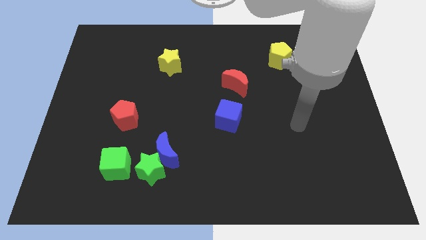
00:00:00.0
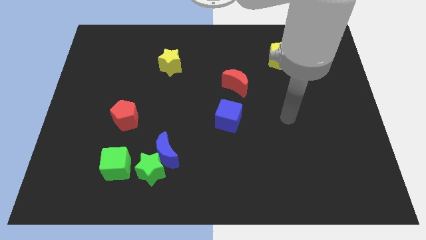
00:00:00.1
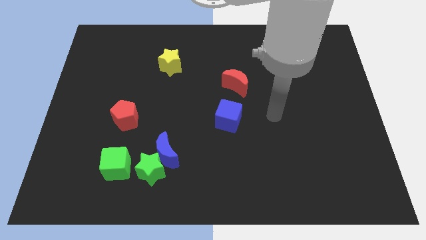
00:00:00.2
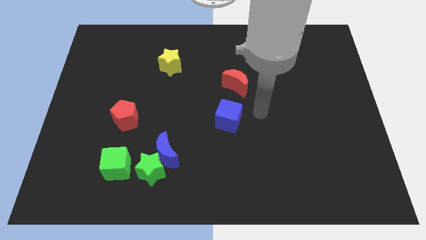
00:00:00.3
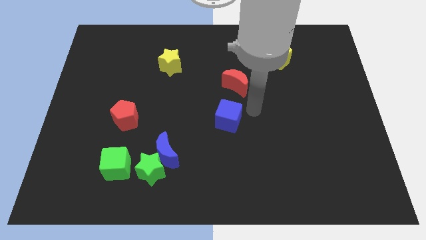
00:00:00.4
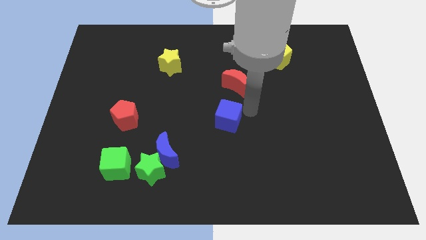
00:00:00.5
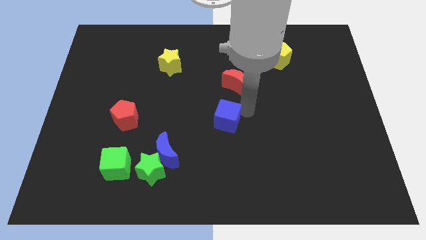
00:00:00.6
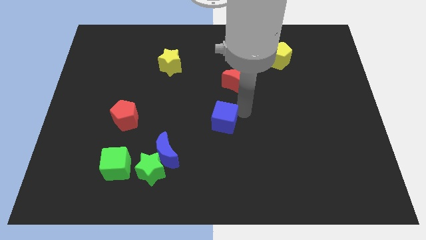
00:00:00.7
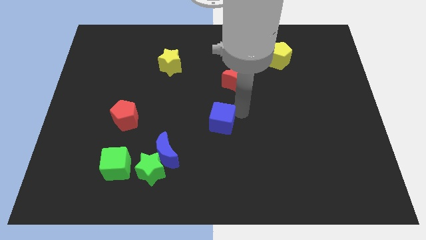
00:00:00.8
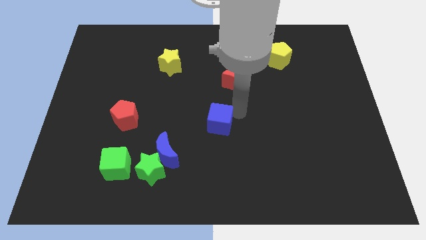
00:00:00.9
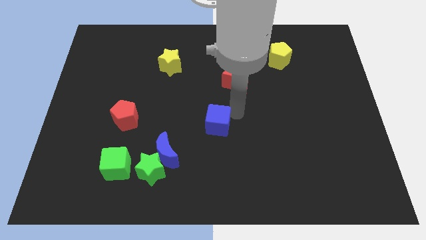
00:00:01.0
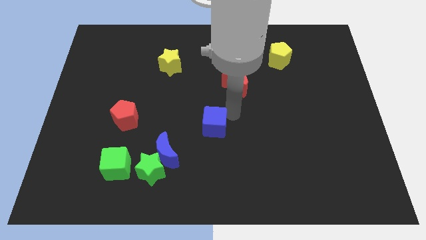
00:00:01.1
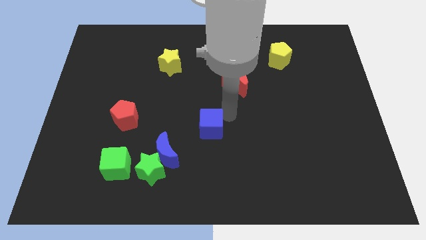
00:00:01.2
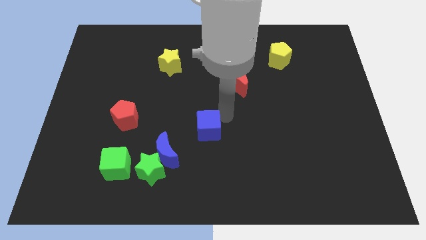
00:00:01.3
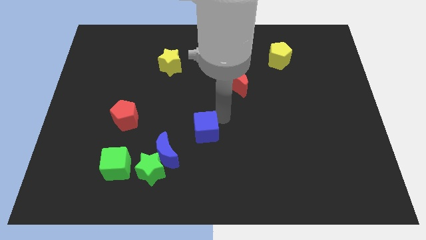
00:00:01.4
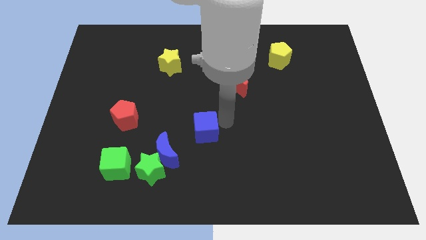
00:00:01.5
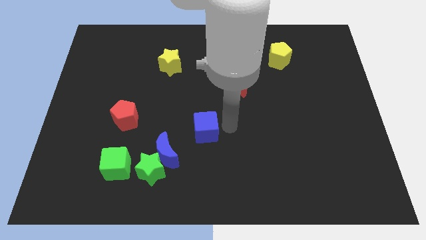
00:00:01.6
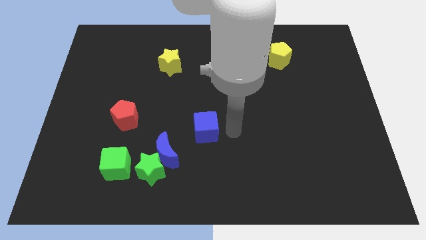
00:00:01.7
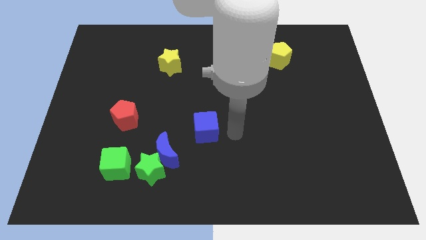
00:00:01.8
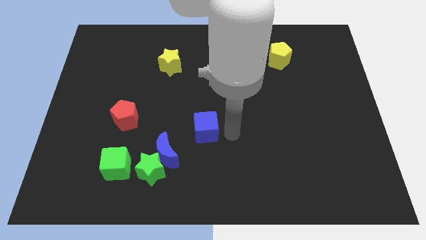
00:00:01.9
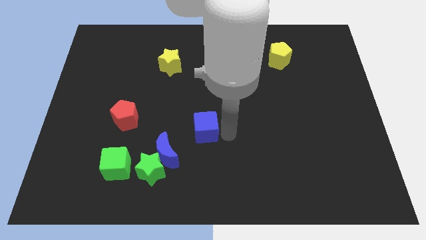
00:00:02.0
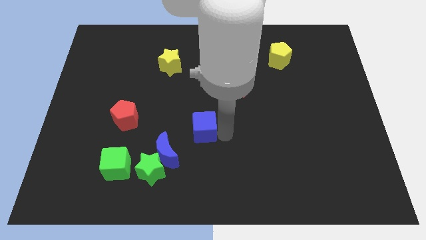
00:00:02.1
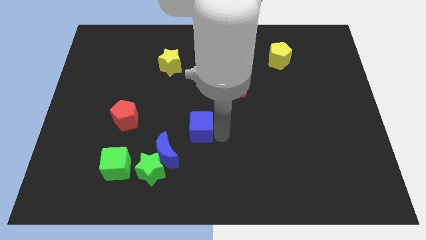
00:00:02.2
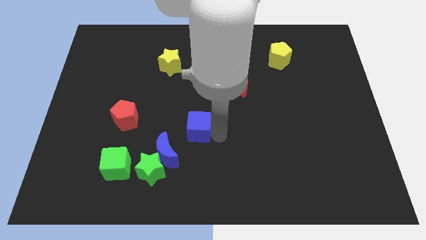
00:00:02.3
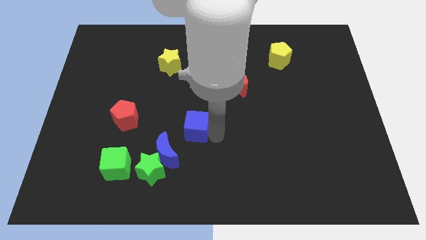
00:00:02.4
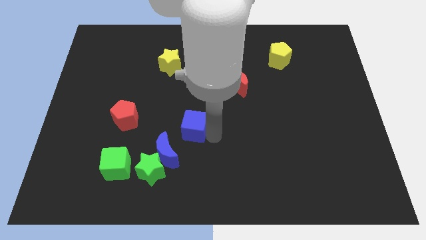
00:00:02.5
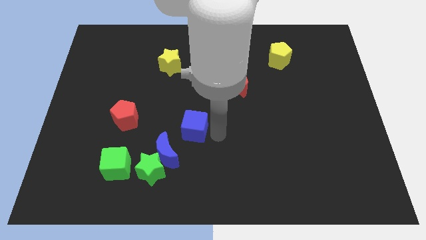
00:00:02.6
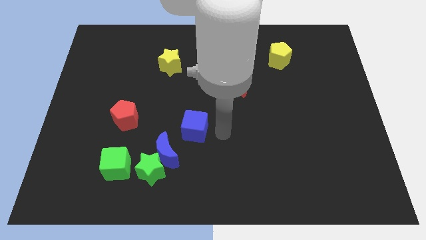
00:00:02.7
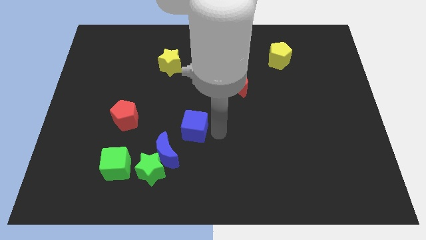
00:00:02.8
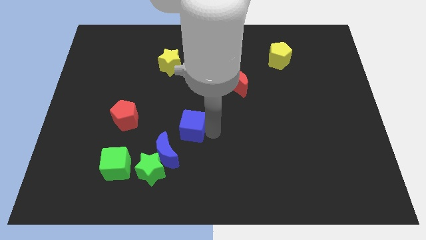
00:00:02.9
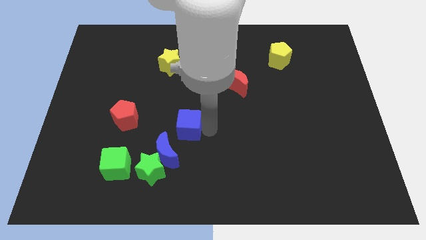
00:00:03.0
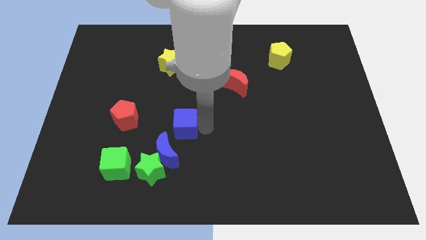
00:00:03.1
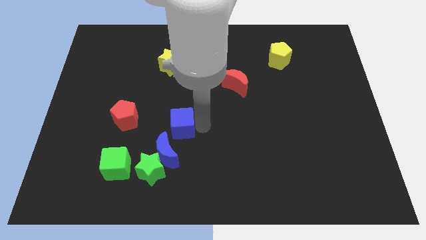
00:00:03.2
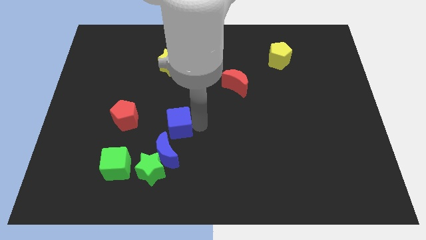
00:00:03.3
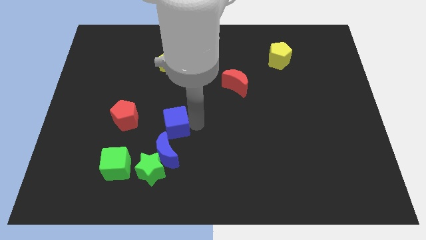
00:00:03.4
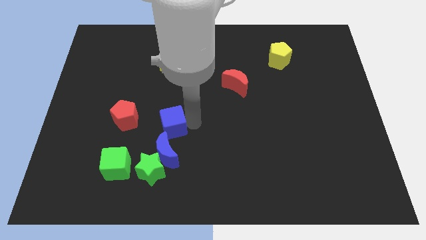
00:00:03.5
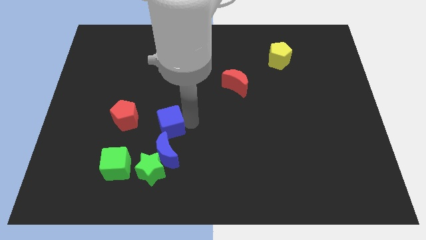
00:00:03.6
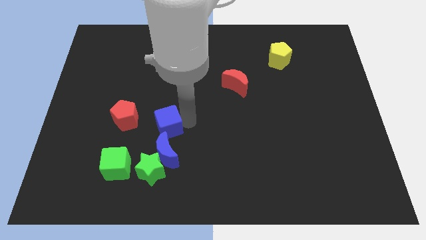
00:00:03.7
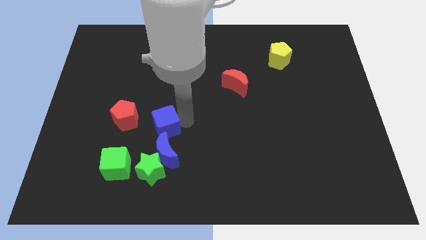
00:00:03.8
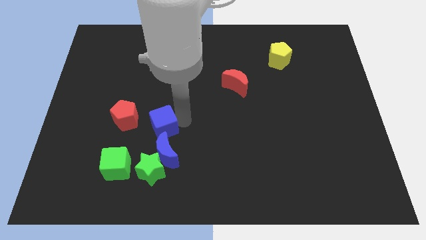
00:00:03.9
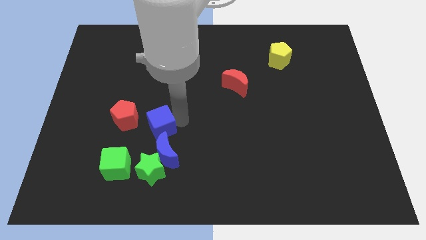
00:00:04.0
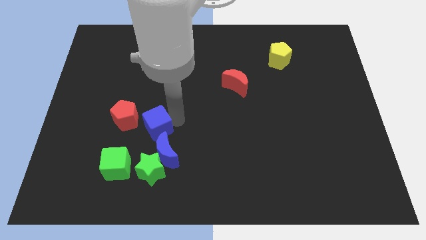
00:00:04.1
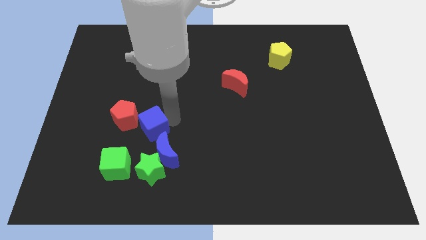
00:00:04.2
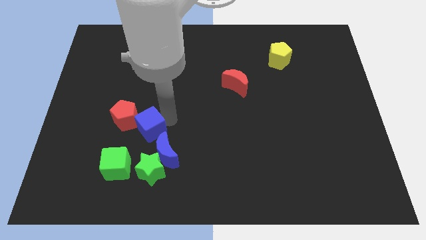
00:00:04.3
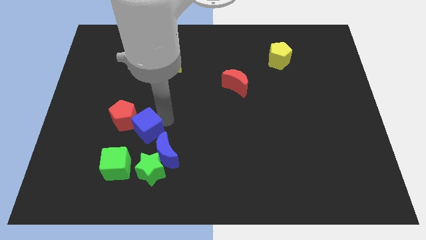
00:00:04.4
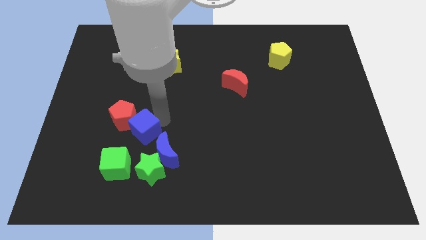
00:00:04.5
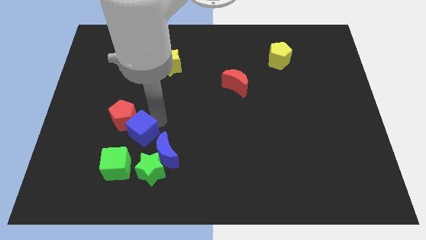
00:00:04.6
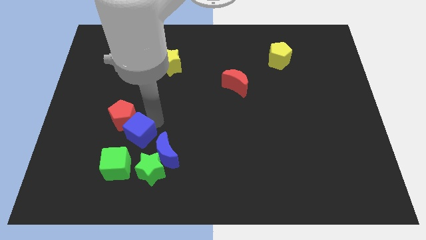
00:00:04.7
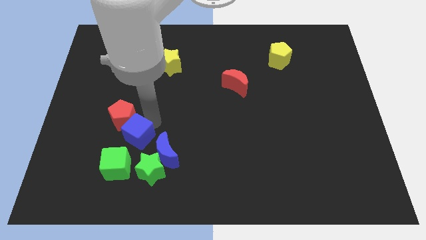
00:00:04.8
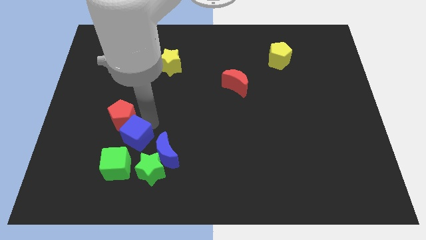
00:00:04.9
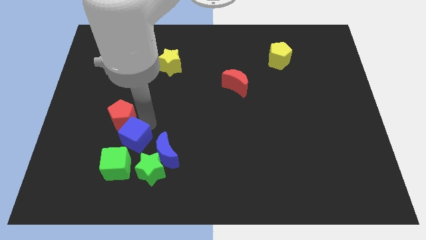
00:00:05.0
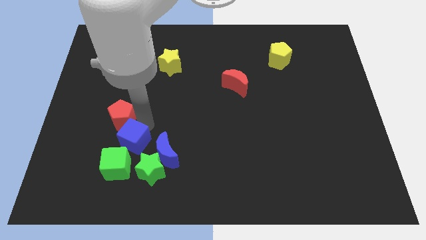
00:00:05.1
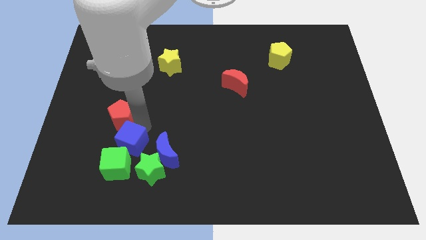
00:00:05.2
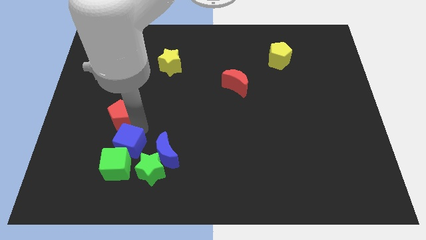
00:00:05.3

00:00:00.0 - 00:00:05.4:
push the blue cube to the green cube

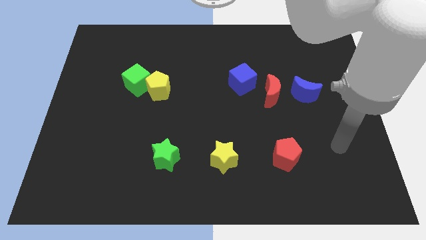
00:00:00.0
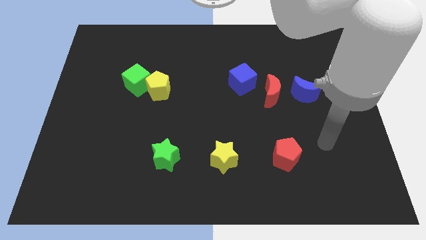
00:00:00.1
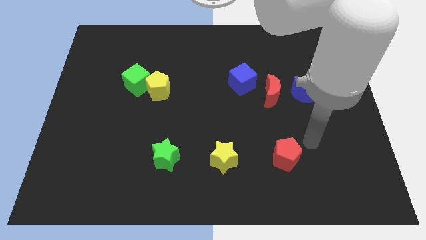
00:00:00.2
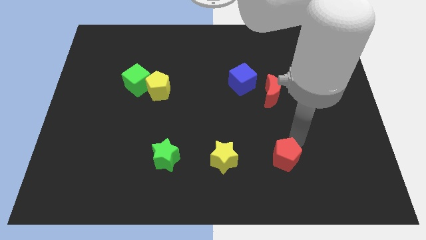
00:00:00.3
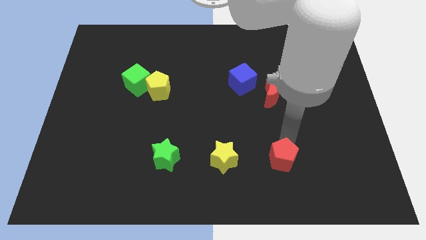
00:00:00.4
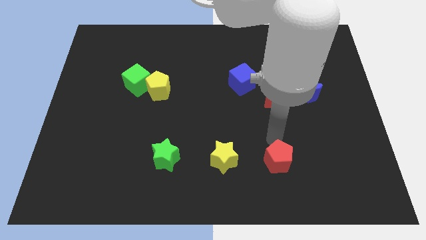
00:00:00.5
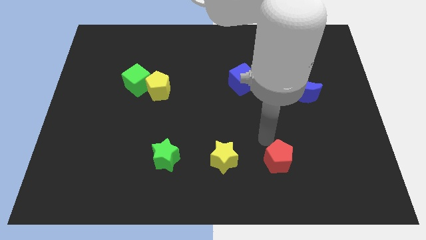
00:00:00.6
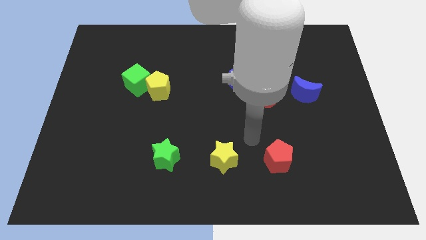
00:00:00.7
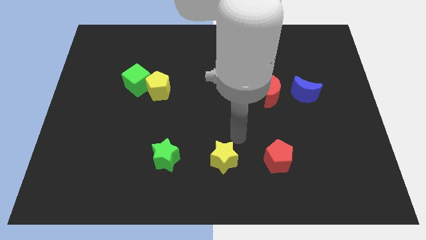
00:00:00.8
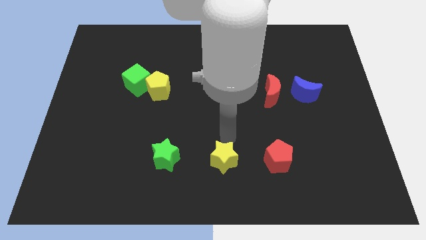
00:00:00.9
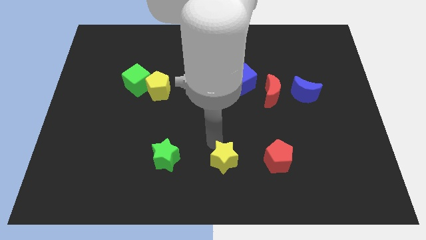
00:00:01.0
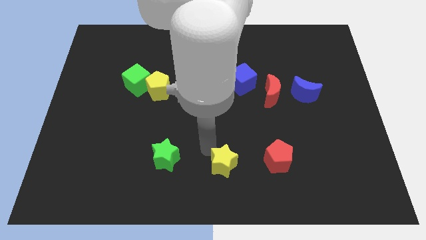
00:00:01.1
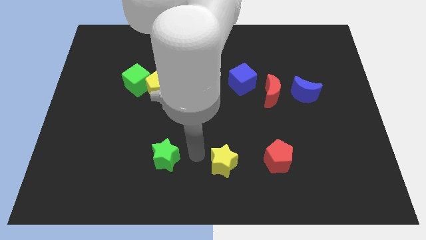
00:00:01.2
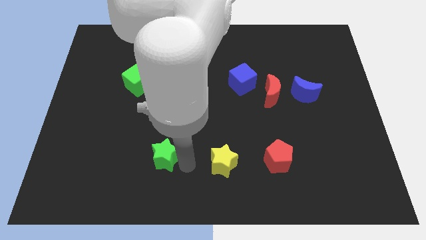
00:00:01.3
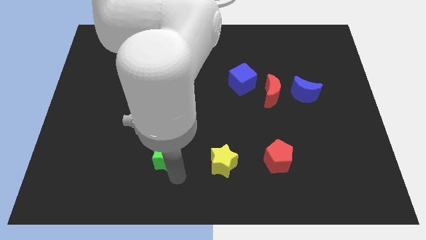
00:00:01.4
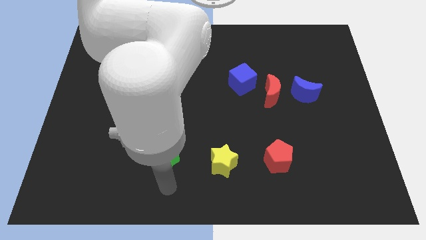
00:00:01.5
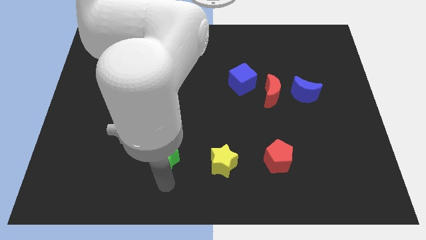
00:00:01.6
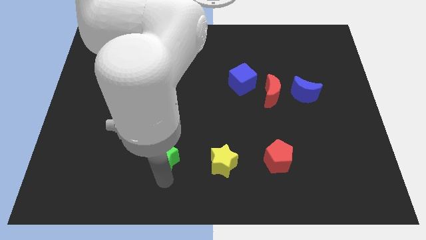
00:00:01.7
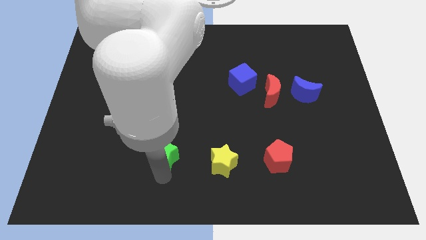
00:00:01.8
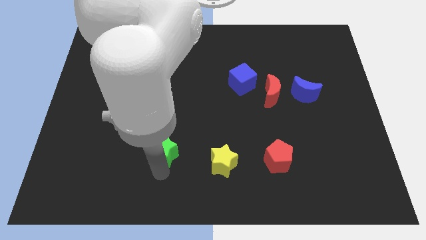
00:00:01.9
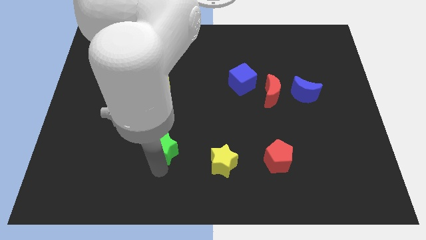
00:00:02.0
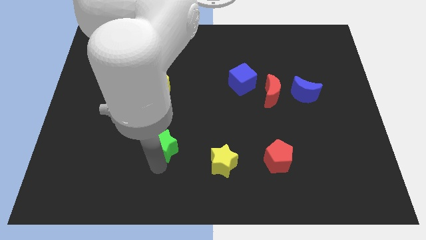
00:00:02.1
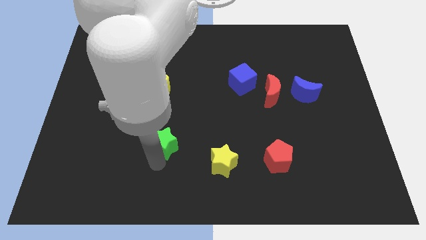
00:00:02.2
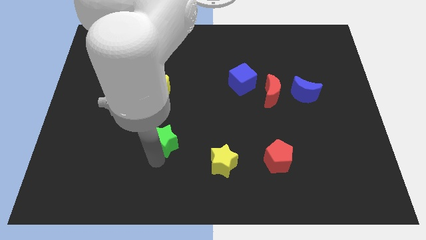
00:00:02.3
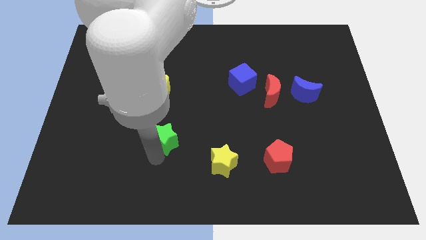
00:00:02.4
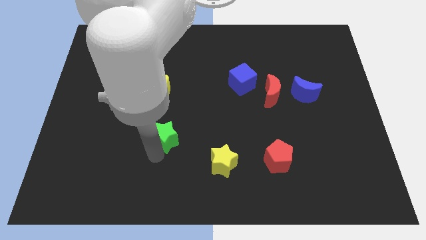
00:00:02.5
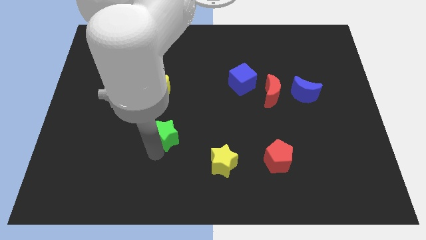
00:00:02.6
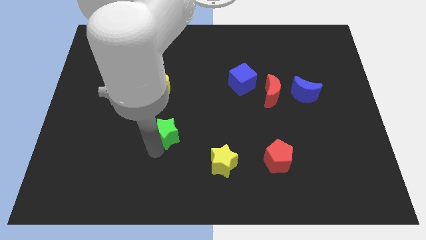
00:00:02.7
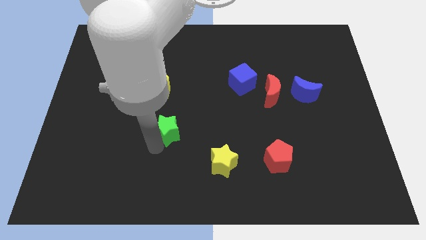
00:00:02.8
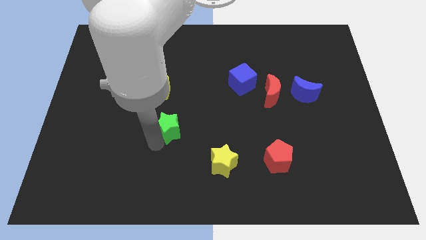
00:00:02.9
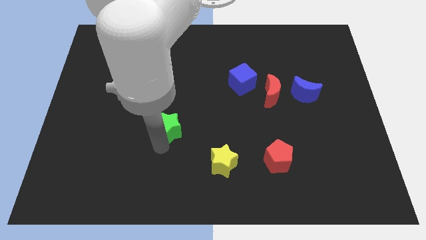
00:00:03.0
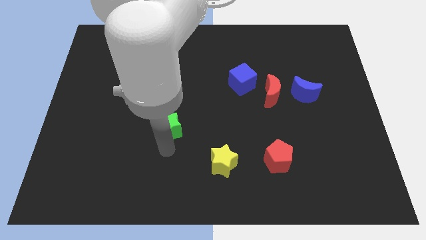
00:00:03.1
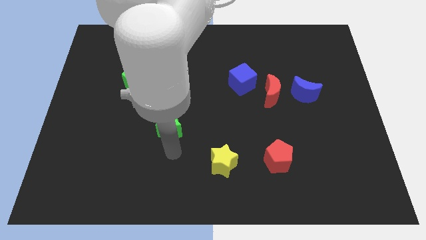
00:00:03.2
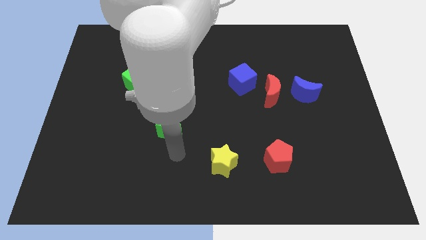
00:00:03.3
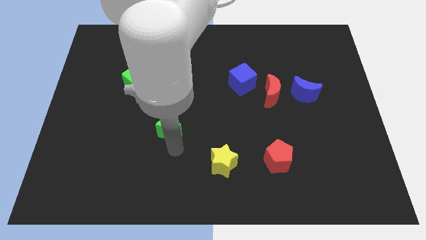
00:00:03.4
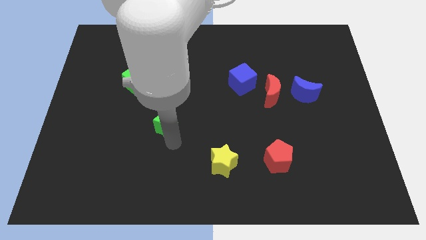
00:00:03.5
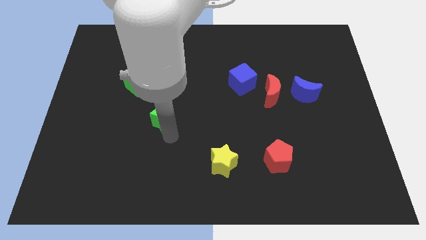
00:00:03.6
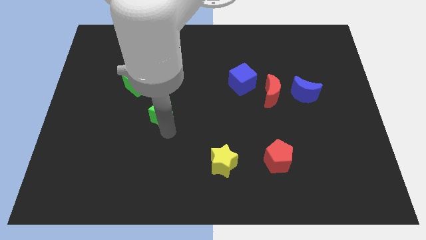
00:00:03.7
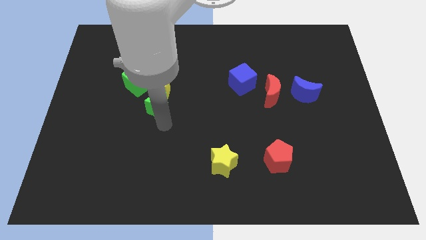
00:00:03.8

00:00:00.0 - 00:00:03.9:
put the green star to the yellow pentagon
